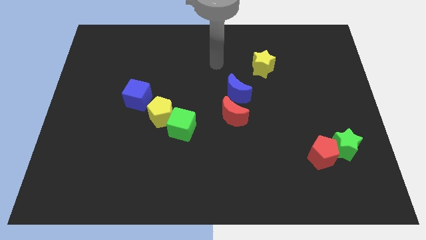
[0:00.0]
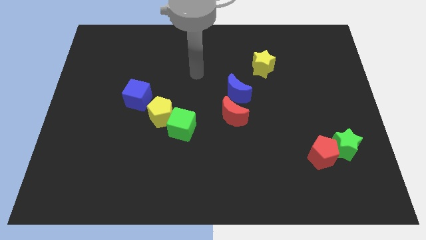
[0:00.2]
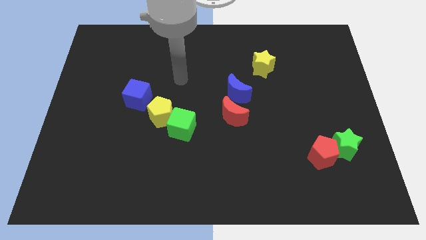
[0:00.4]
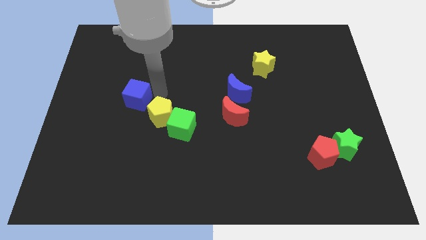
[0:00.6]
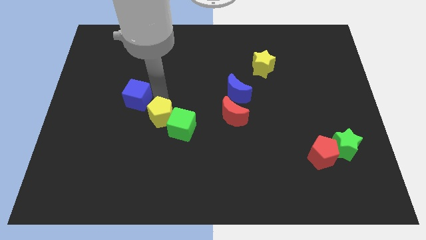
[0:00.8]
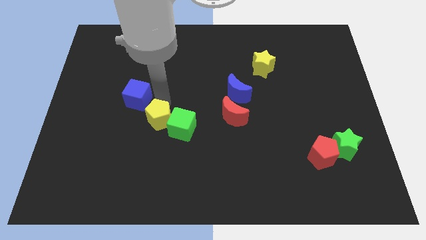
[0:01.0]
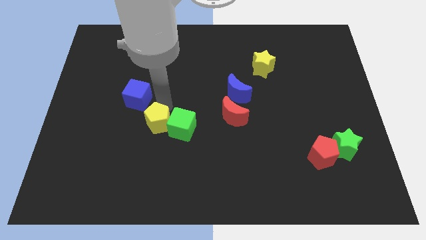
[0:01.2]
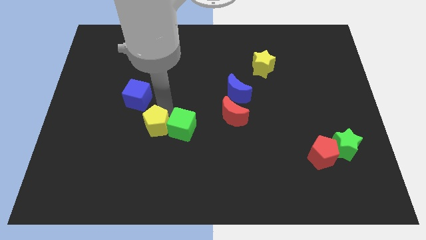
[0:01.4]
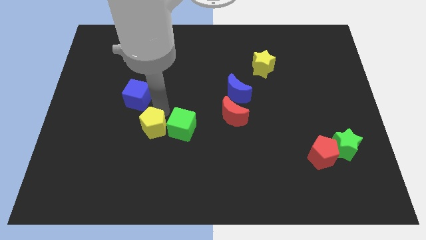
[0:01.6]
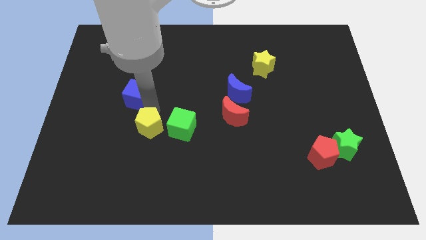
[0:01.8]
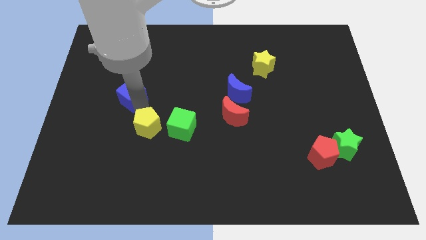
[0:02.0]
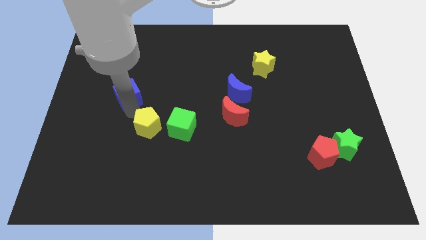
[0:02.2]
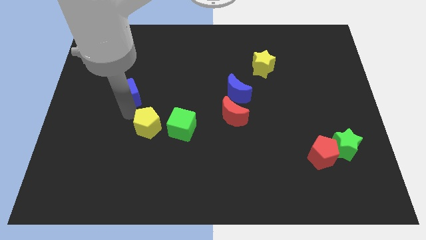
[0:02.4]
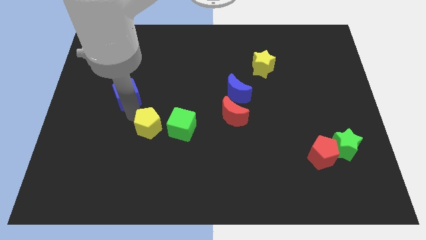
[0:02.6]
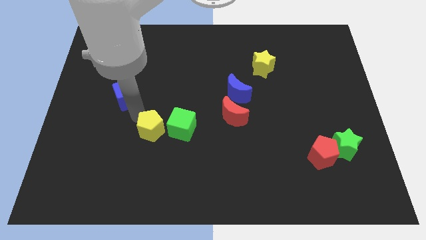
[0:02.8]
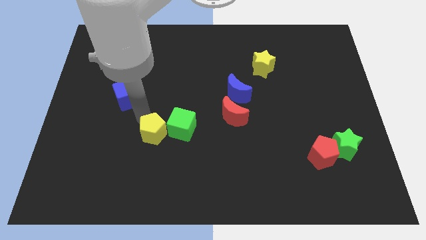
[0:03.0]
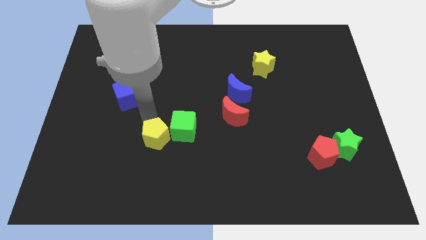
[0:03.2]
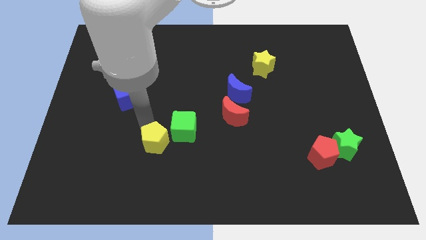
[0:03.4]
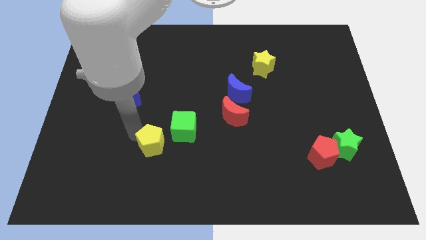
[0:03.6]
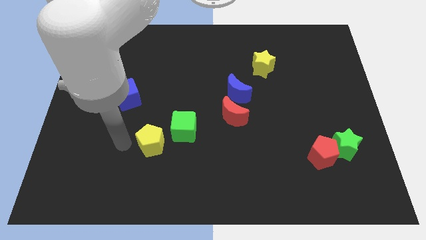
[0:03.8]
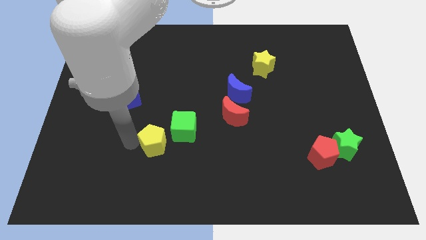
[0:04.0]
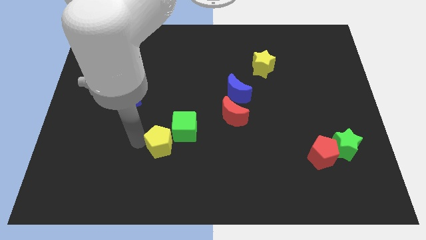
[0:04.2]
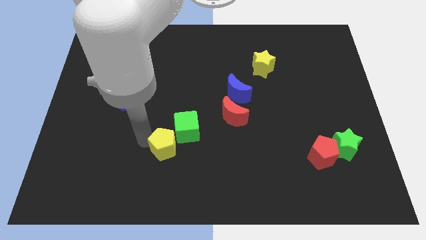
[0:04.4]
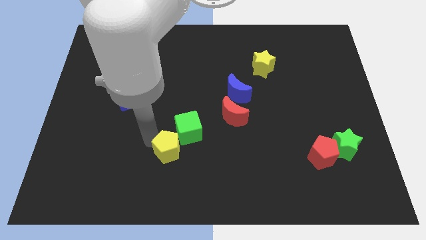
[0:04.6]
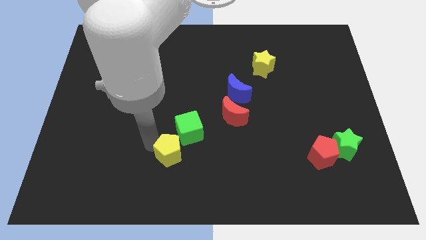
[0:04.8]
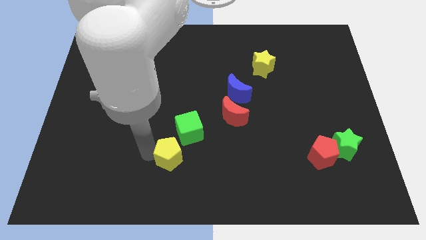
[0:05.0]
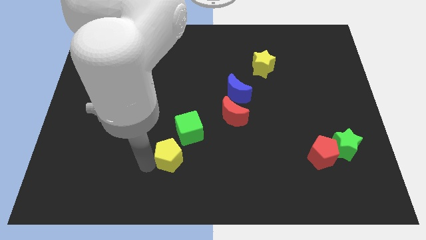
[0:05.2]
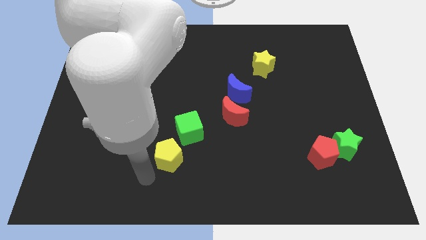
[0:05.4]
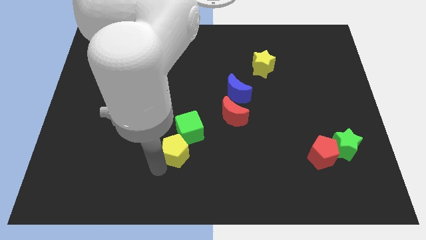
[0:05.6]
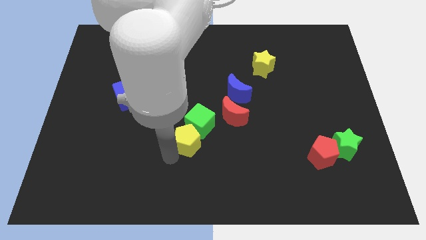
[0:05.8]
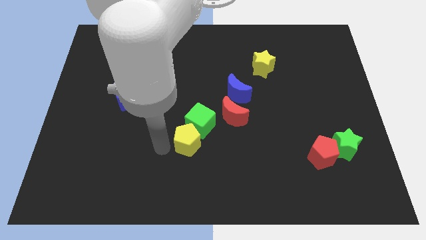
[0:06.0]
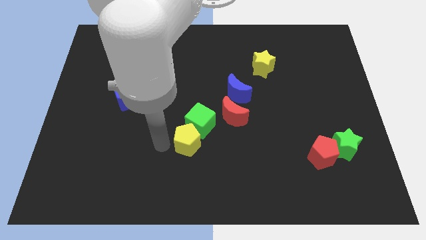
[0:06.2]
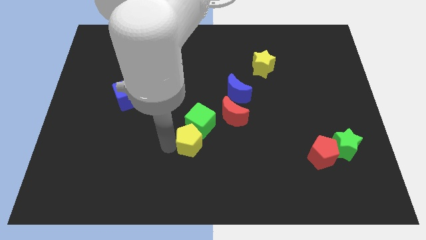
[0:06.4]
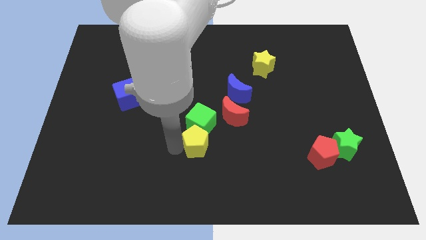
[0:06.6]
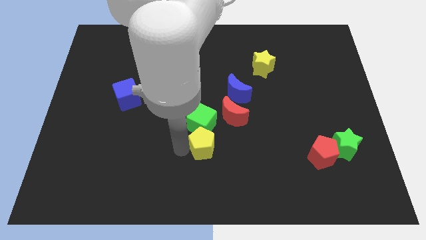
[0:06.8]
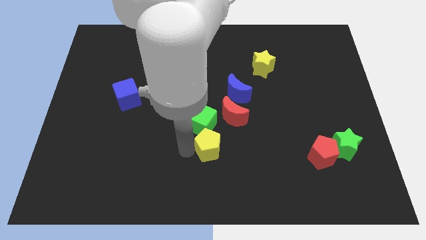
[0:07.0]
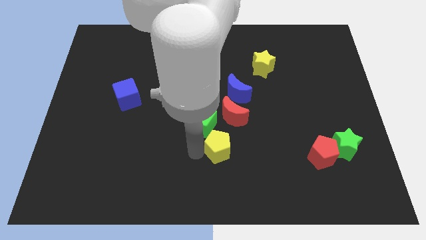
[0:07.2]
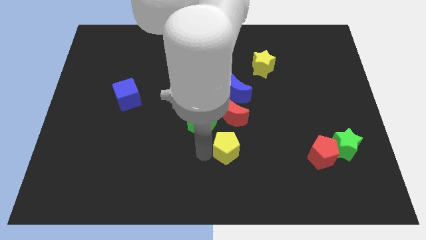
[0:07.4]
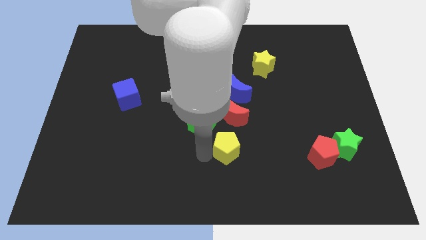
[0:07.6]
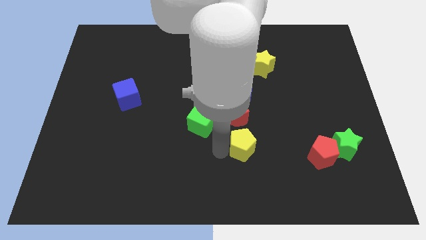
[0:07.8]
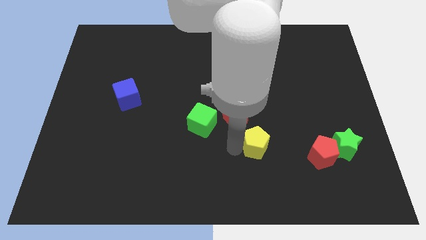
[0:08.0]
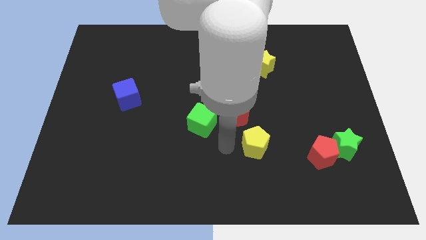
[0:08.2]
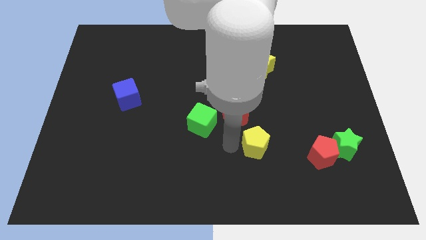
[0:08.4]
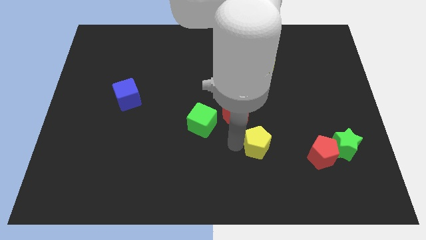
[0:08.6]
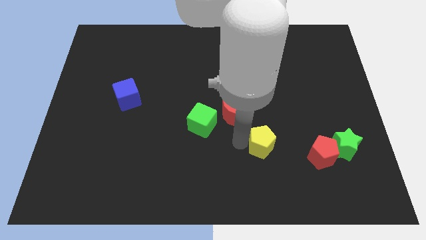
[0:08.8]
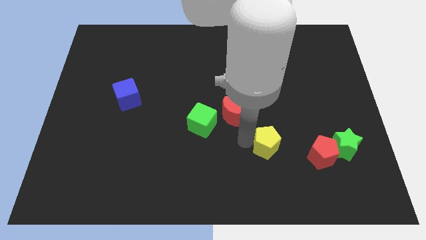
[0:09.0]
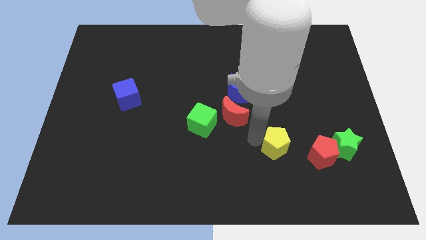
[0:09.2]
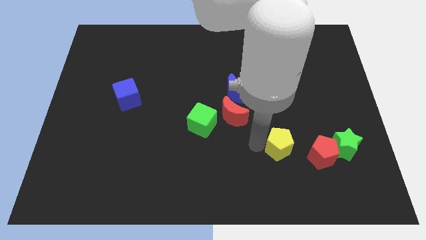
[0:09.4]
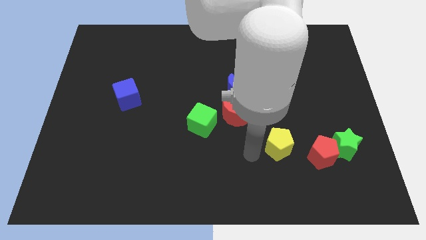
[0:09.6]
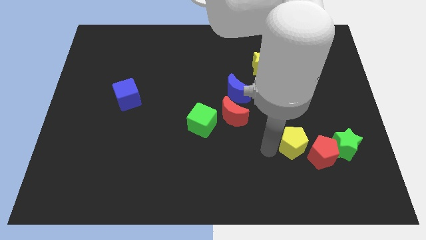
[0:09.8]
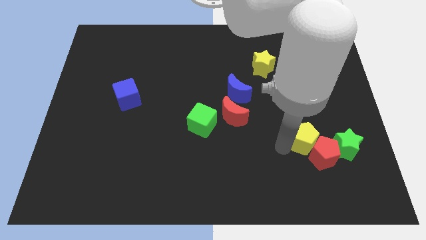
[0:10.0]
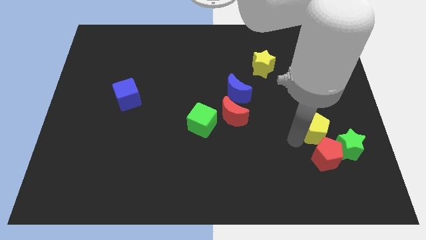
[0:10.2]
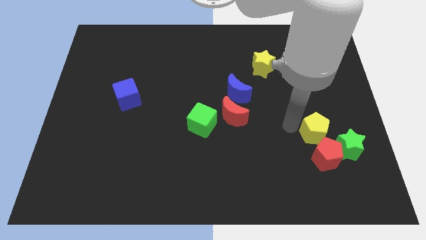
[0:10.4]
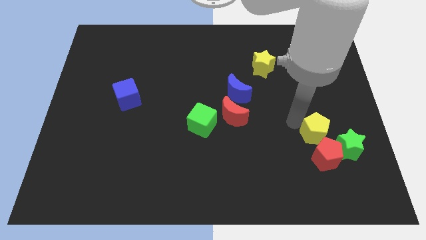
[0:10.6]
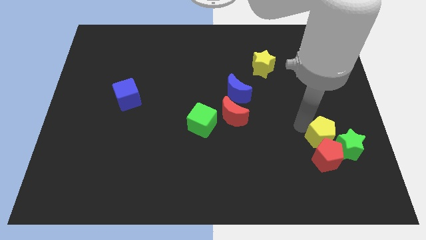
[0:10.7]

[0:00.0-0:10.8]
move the yellow pentagon next to the green star

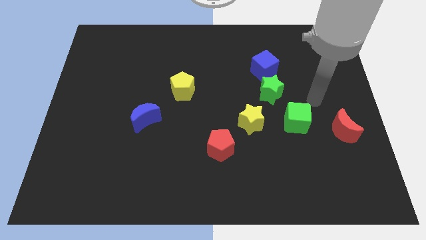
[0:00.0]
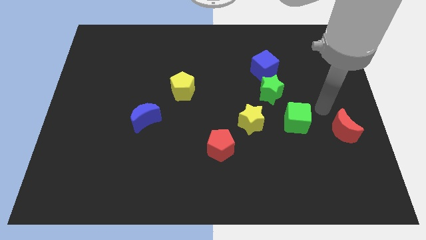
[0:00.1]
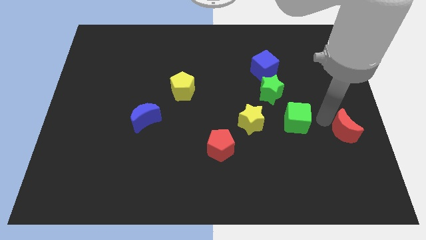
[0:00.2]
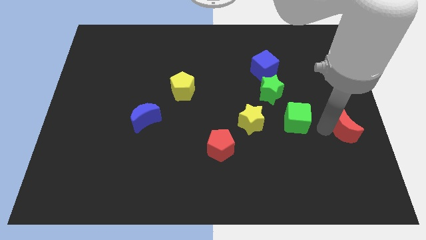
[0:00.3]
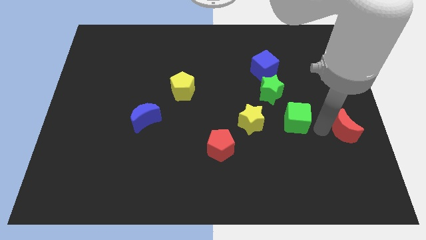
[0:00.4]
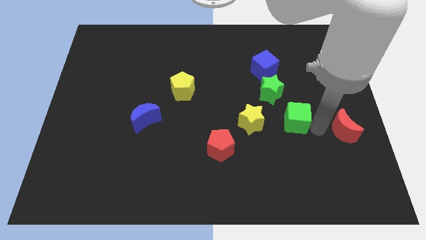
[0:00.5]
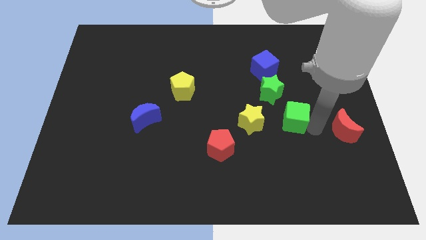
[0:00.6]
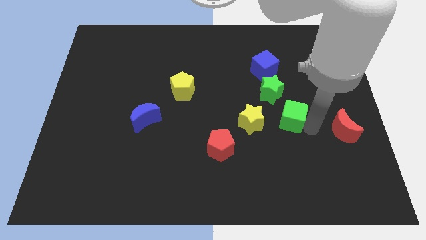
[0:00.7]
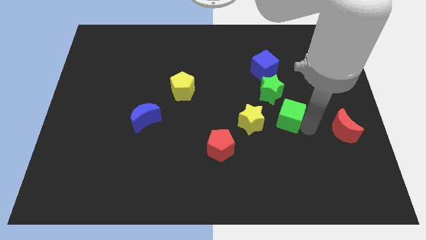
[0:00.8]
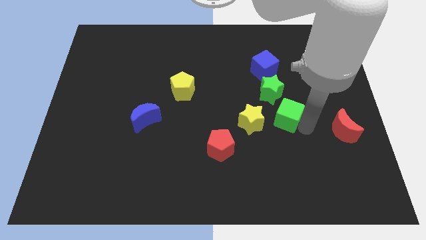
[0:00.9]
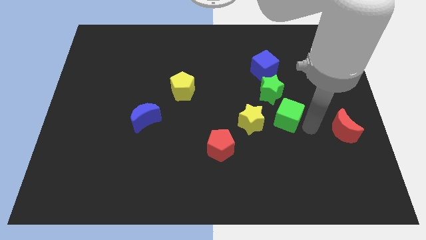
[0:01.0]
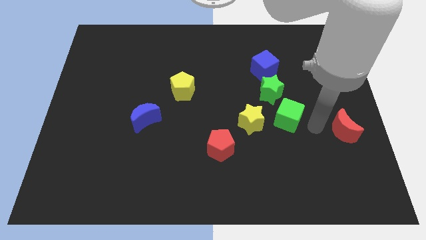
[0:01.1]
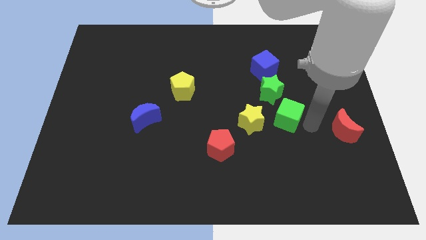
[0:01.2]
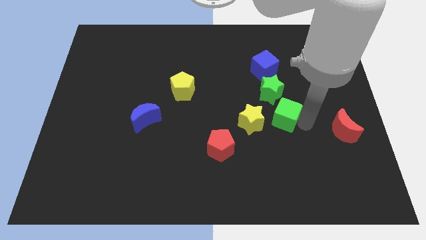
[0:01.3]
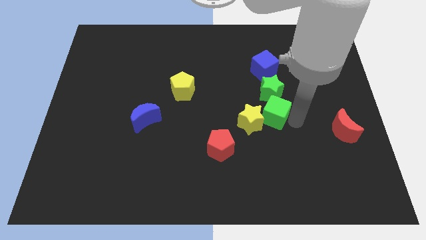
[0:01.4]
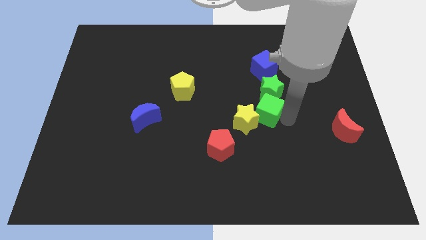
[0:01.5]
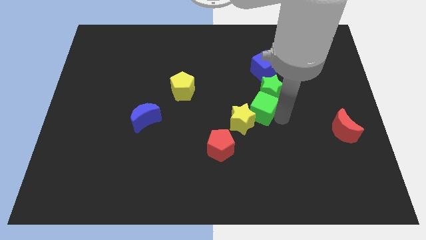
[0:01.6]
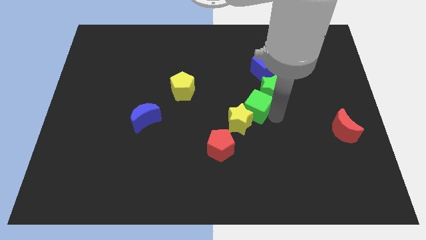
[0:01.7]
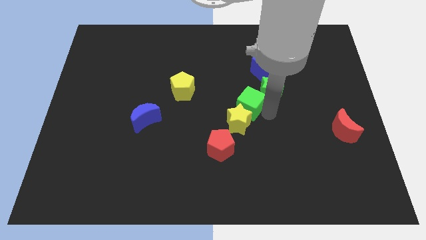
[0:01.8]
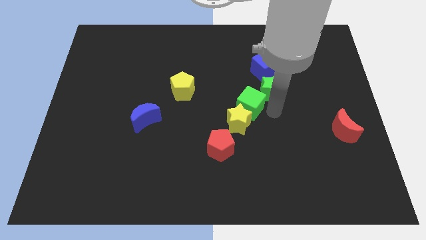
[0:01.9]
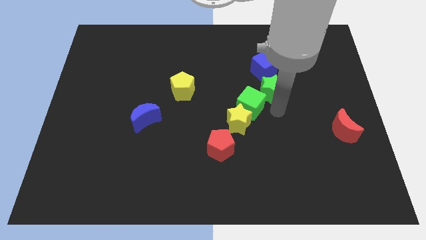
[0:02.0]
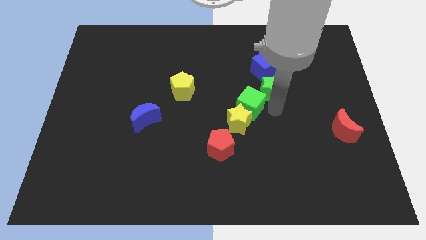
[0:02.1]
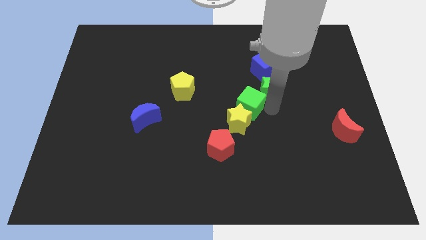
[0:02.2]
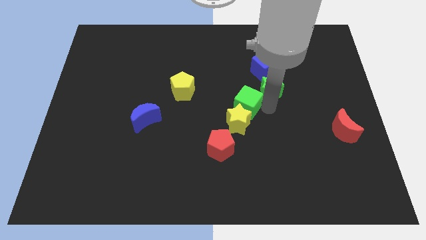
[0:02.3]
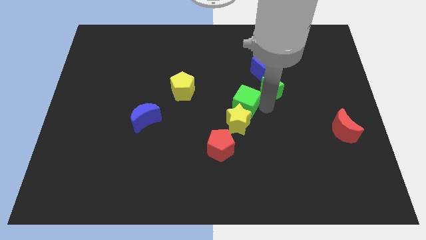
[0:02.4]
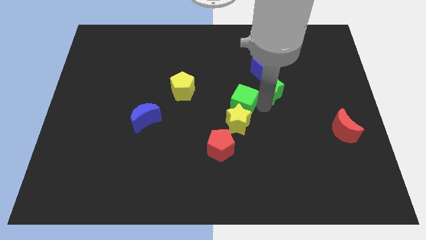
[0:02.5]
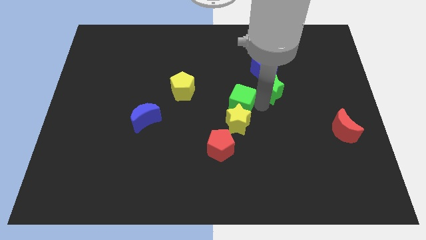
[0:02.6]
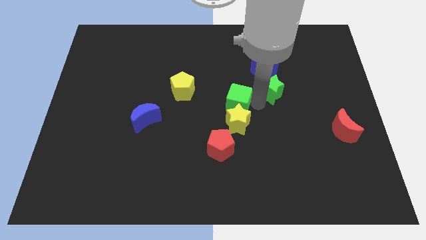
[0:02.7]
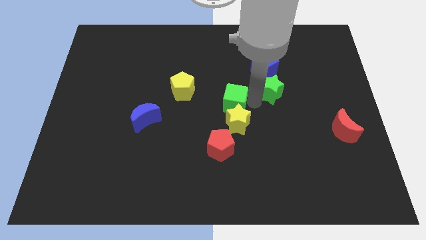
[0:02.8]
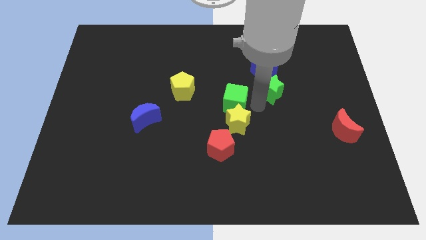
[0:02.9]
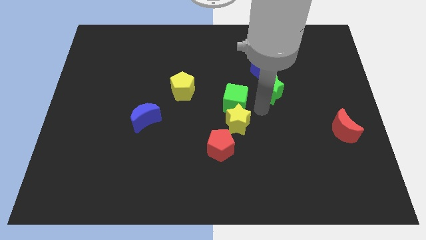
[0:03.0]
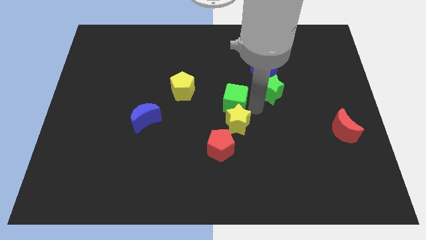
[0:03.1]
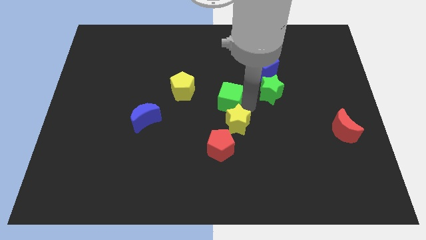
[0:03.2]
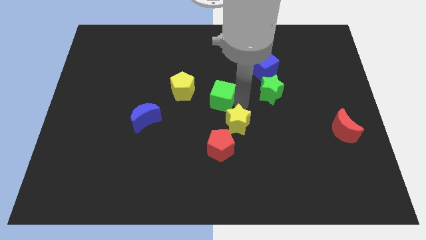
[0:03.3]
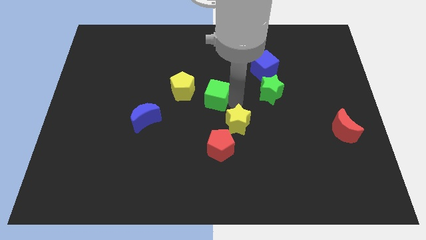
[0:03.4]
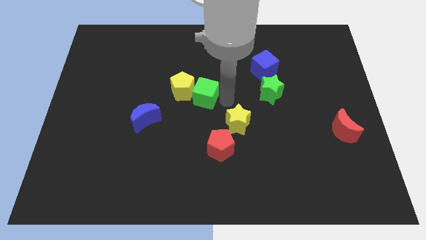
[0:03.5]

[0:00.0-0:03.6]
push the green cube to the yellow pentagon
